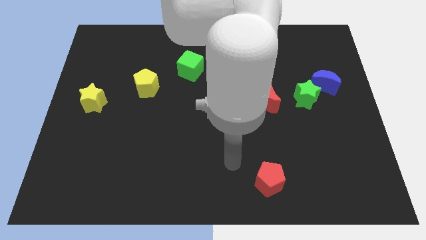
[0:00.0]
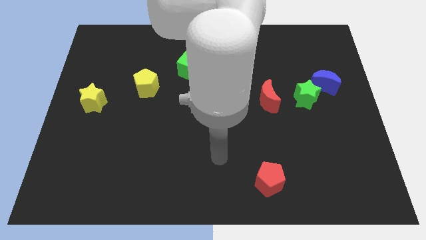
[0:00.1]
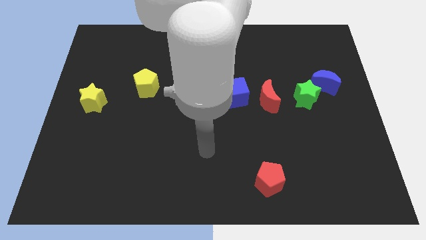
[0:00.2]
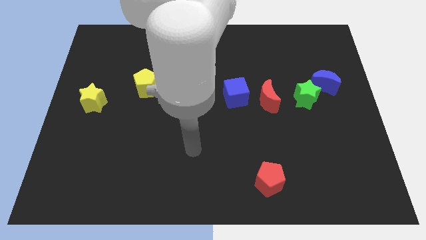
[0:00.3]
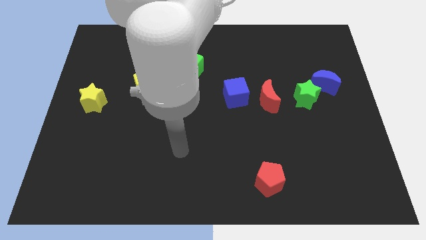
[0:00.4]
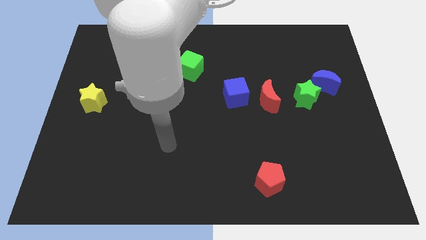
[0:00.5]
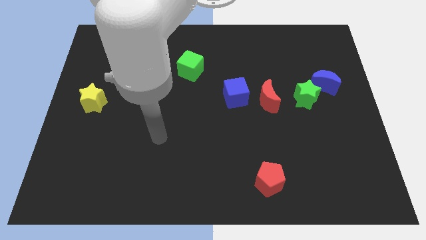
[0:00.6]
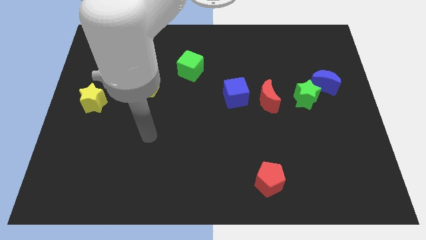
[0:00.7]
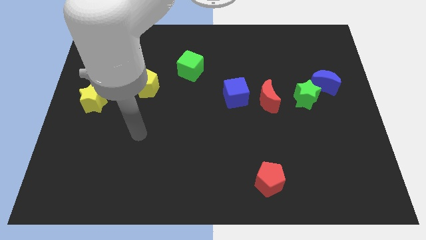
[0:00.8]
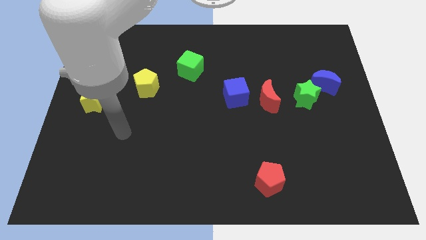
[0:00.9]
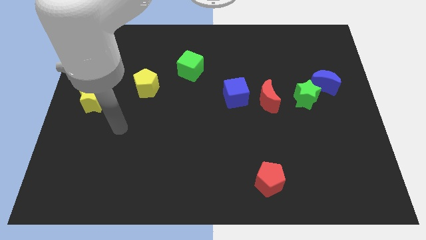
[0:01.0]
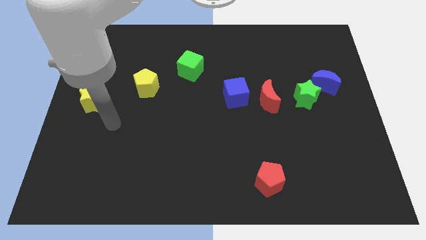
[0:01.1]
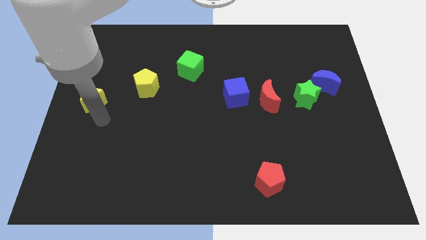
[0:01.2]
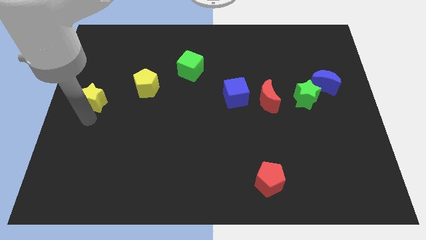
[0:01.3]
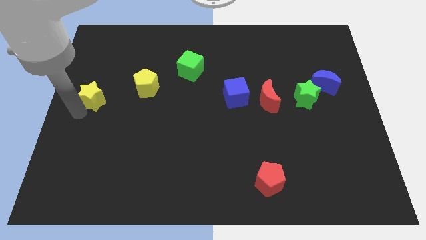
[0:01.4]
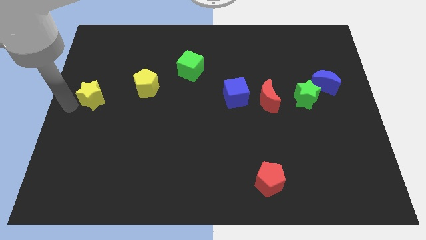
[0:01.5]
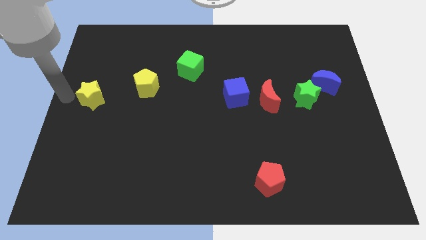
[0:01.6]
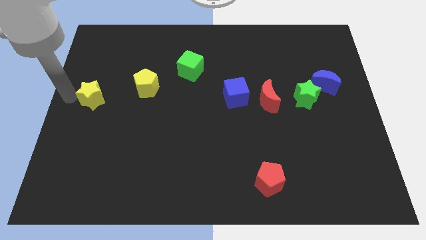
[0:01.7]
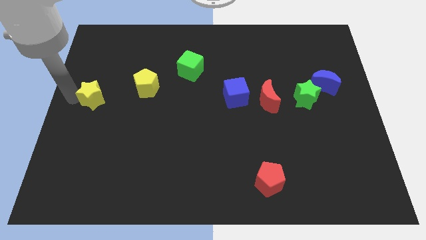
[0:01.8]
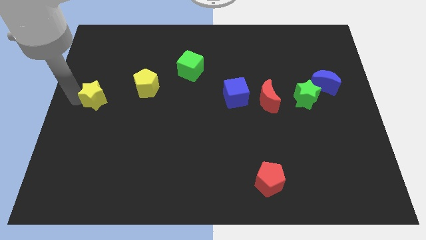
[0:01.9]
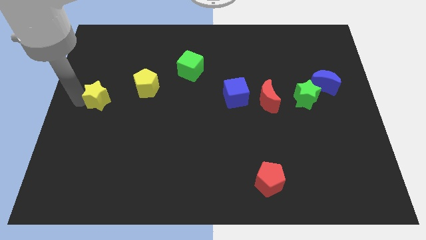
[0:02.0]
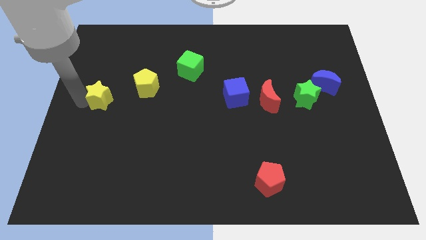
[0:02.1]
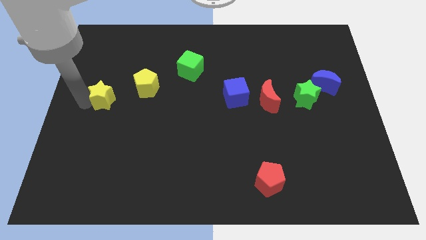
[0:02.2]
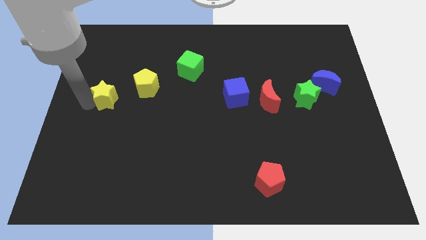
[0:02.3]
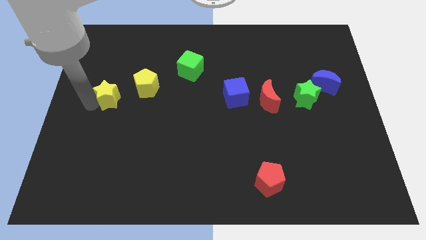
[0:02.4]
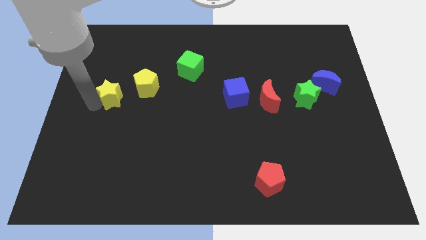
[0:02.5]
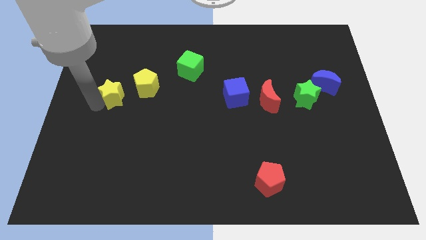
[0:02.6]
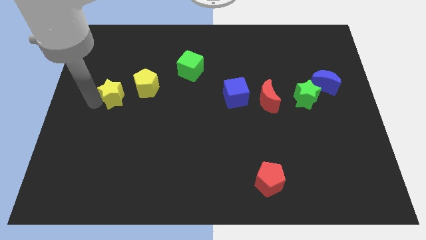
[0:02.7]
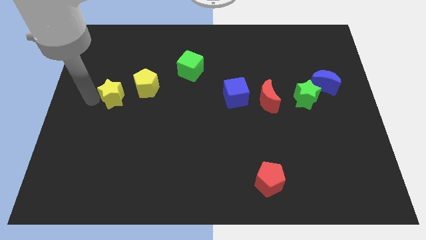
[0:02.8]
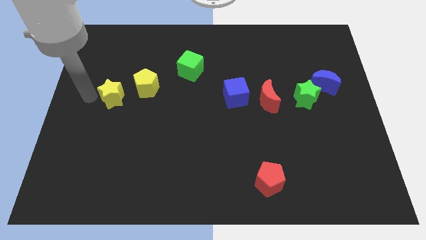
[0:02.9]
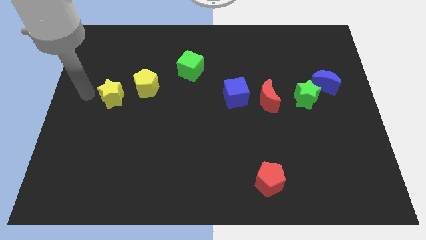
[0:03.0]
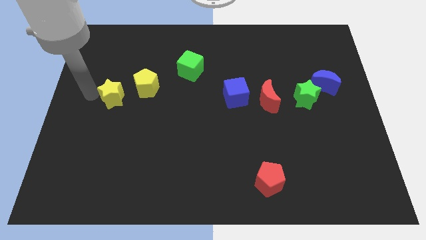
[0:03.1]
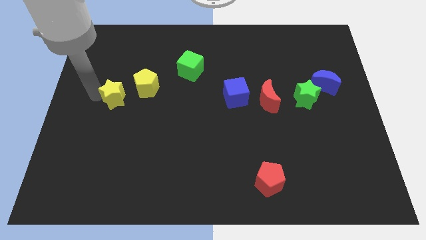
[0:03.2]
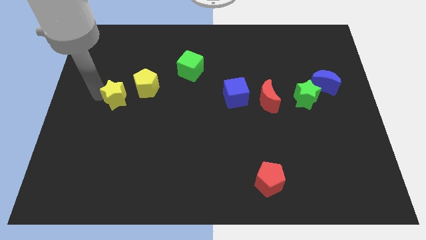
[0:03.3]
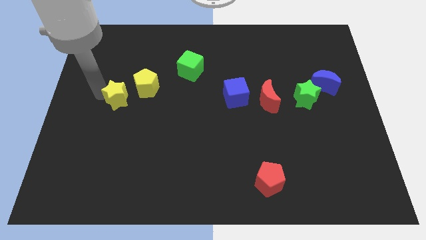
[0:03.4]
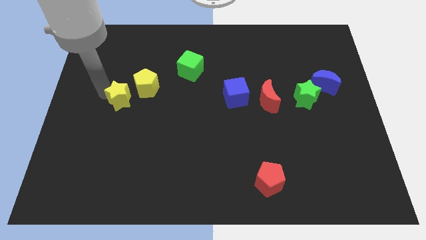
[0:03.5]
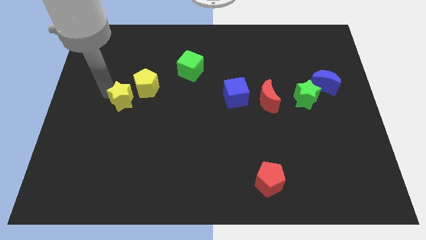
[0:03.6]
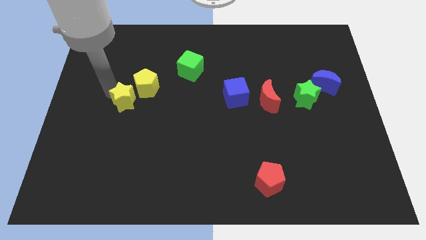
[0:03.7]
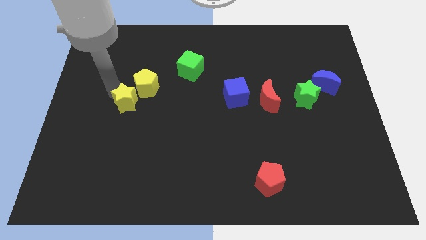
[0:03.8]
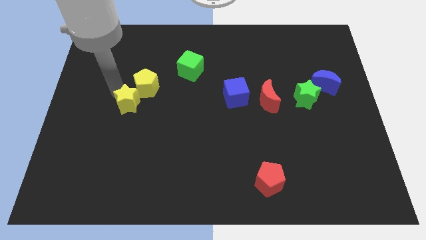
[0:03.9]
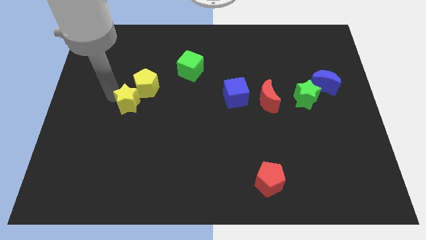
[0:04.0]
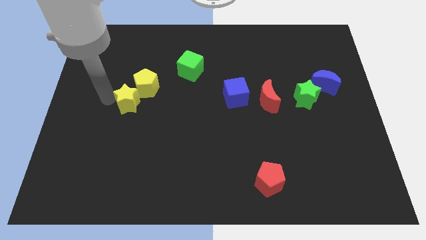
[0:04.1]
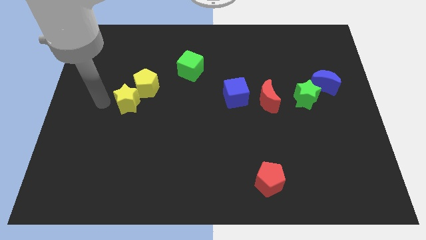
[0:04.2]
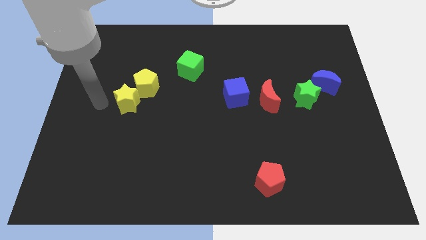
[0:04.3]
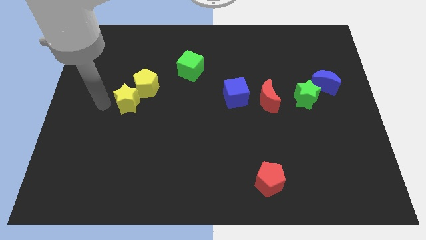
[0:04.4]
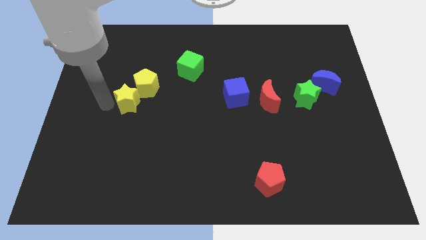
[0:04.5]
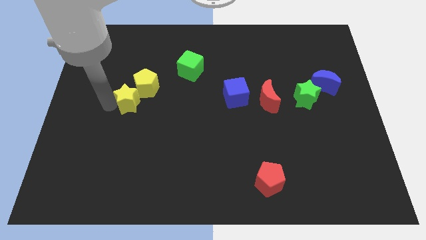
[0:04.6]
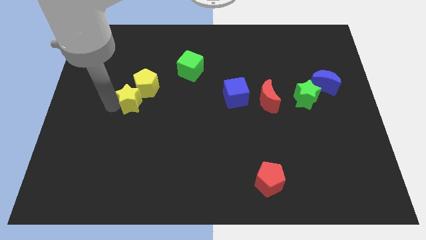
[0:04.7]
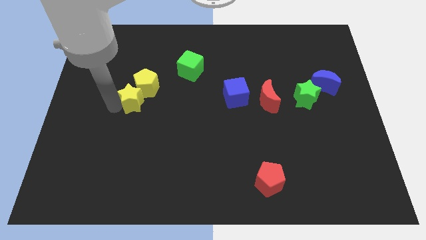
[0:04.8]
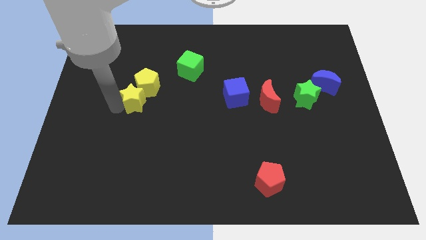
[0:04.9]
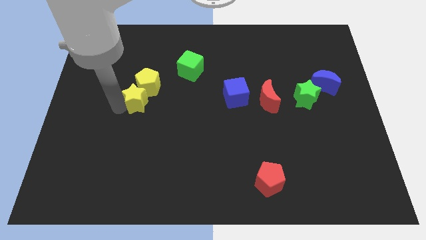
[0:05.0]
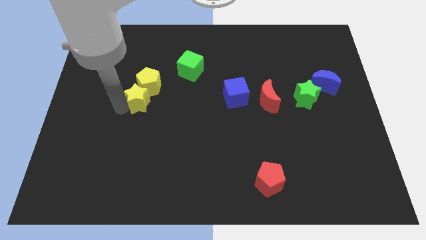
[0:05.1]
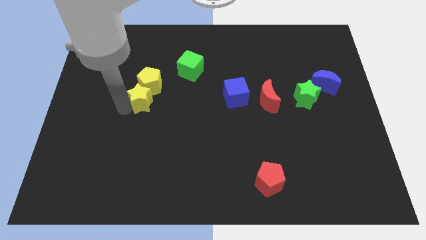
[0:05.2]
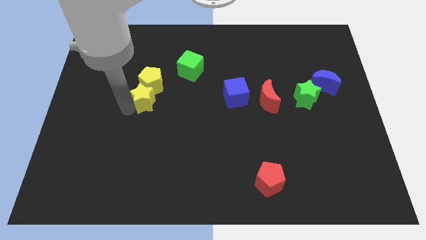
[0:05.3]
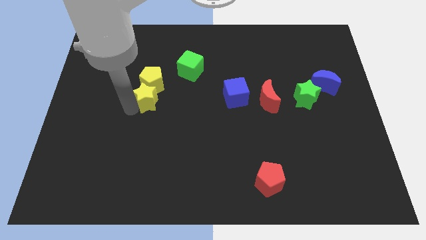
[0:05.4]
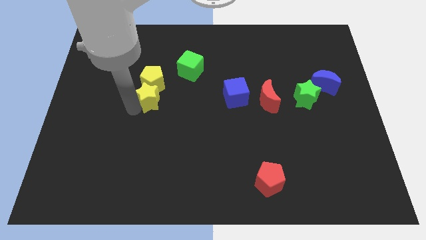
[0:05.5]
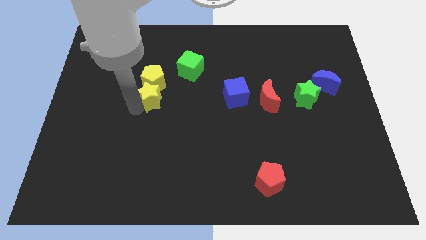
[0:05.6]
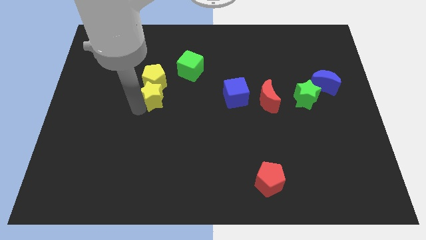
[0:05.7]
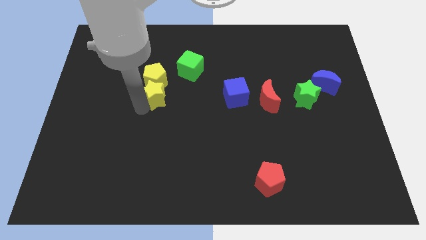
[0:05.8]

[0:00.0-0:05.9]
slide the yellow star to the bottom left side of the green cube
